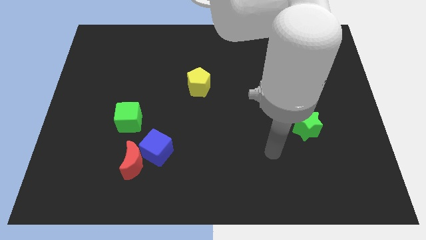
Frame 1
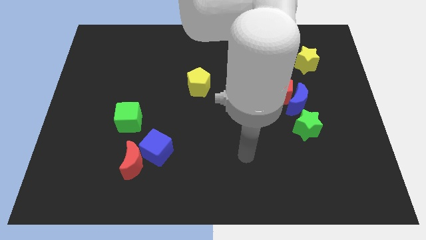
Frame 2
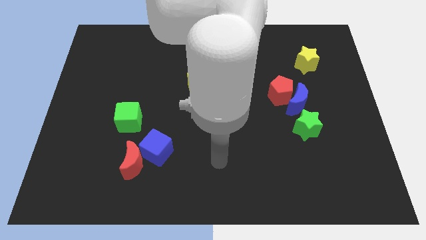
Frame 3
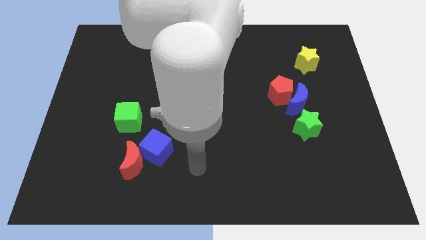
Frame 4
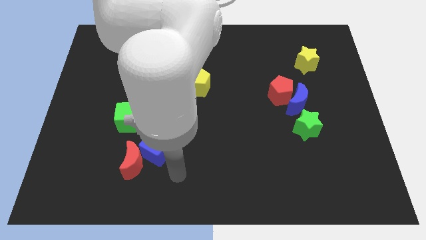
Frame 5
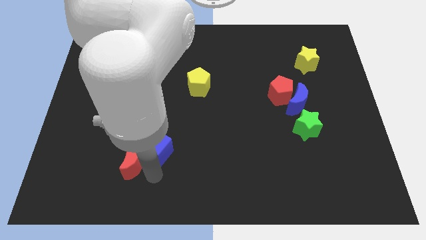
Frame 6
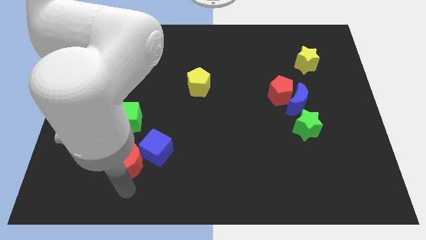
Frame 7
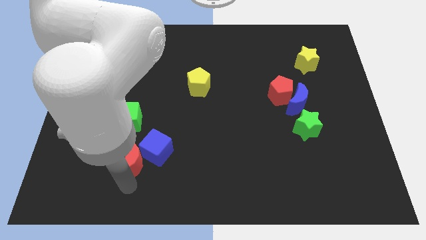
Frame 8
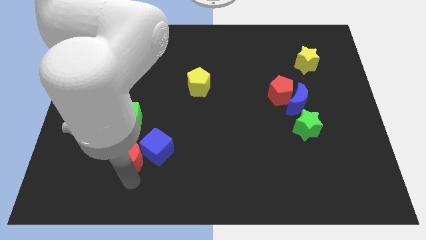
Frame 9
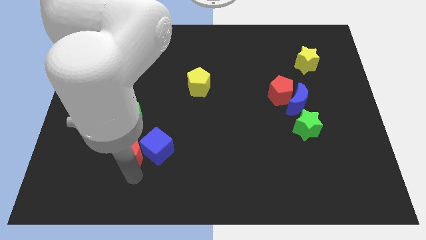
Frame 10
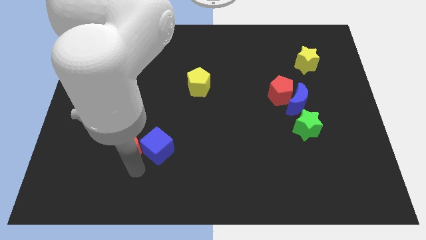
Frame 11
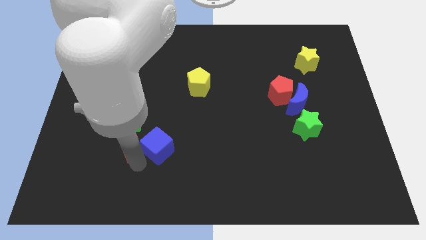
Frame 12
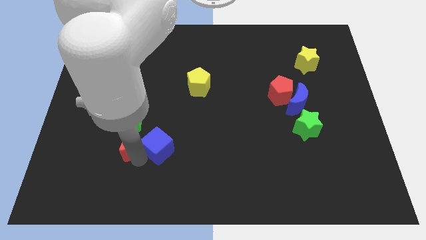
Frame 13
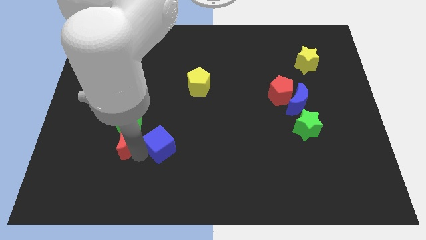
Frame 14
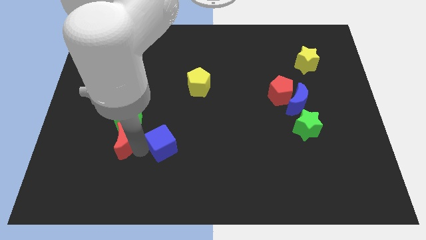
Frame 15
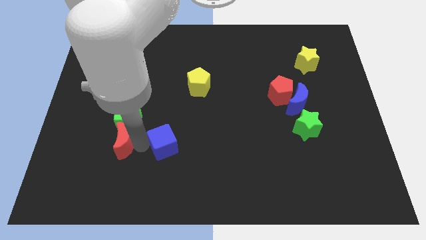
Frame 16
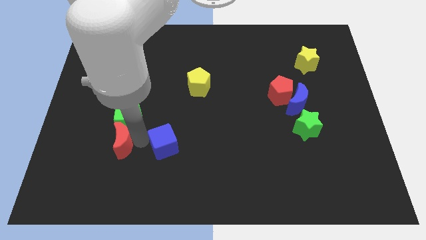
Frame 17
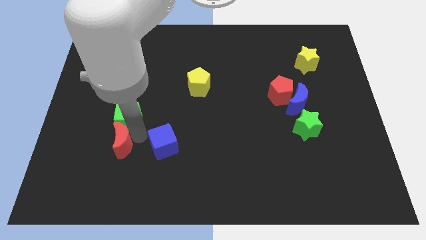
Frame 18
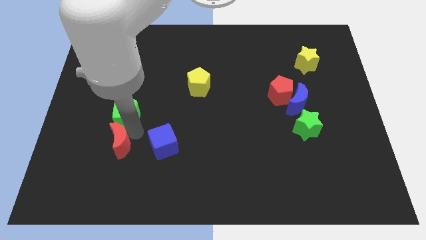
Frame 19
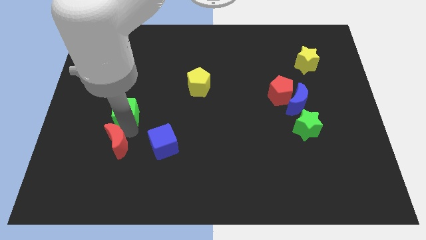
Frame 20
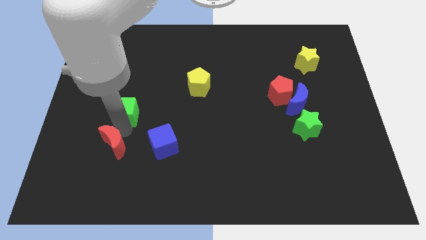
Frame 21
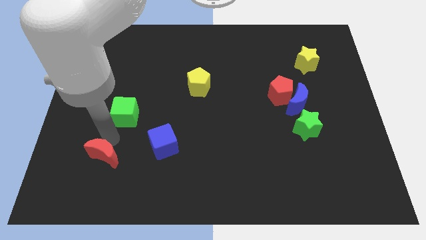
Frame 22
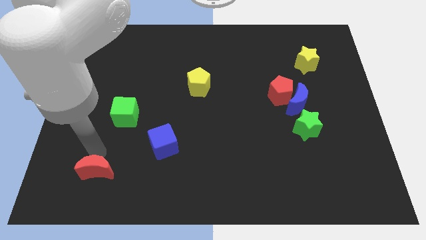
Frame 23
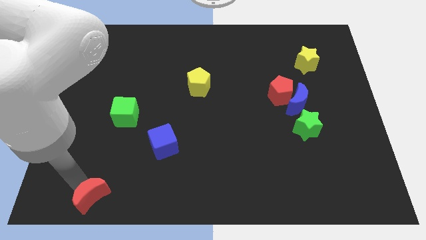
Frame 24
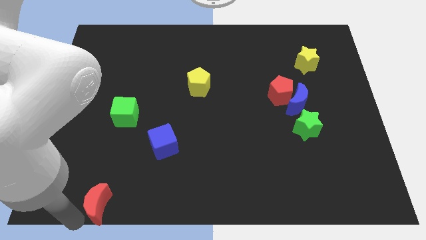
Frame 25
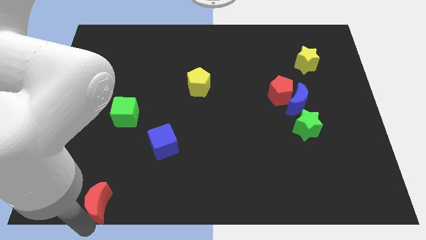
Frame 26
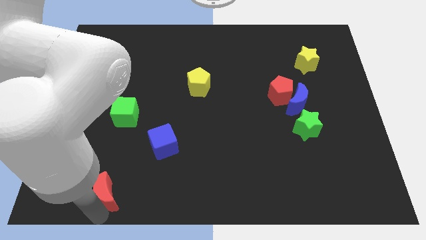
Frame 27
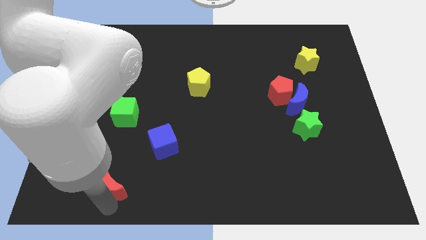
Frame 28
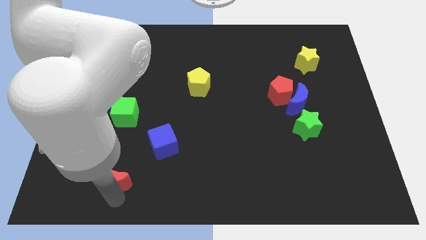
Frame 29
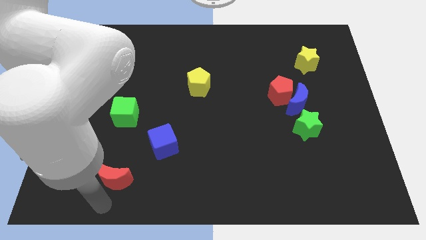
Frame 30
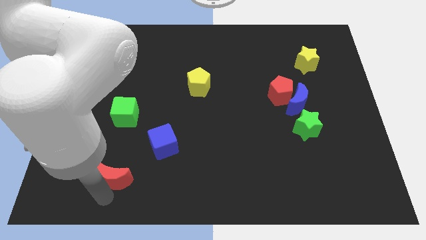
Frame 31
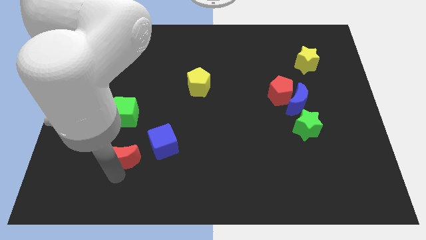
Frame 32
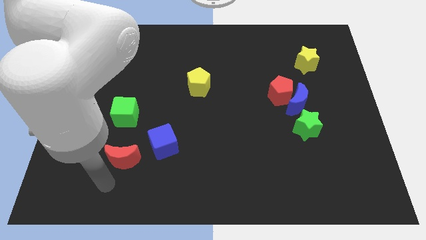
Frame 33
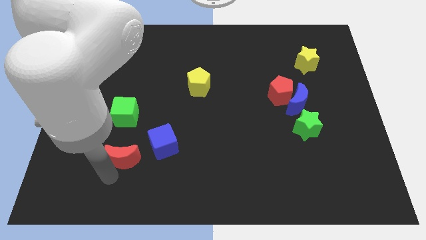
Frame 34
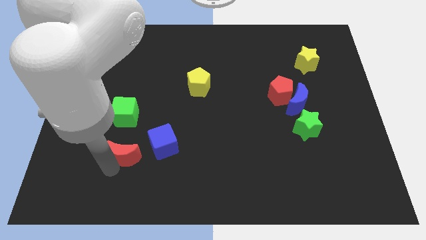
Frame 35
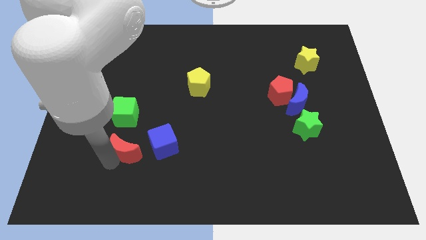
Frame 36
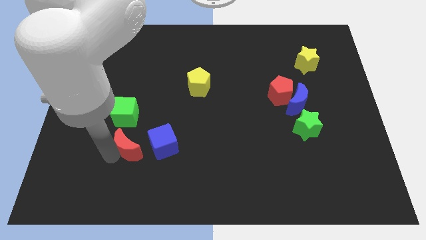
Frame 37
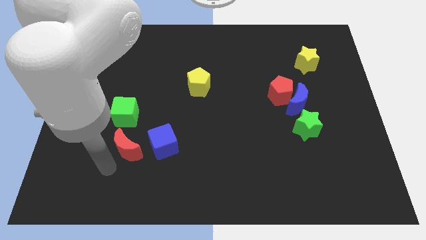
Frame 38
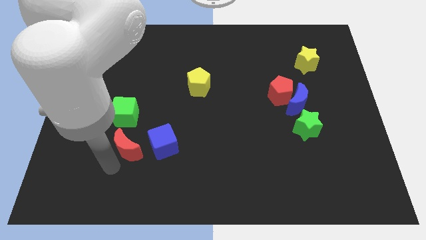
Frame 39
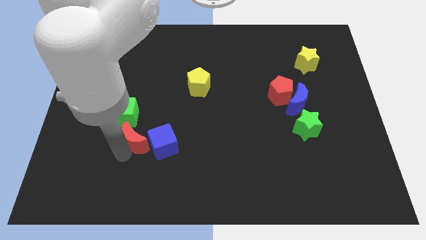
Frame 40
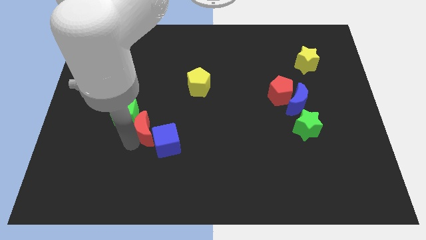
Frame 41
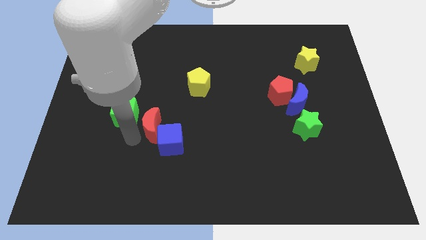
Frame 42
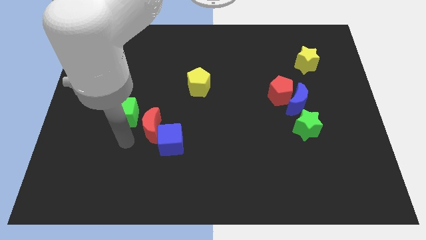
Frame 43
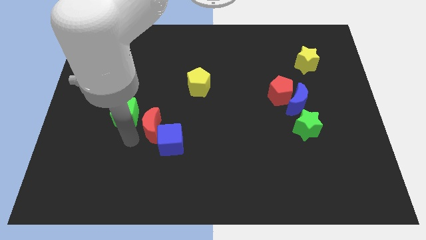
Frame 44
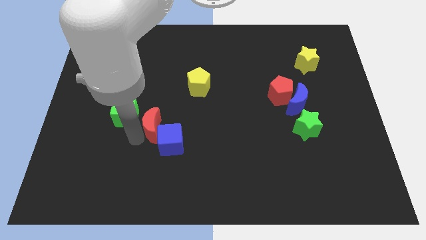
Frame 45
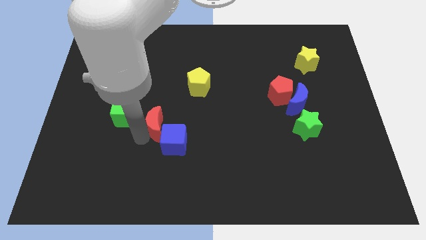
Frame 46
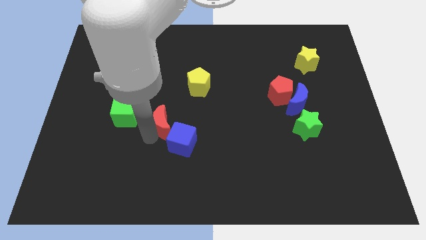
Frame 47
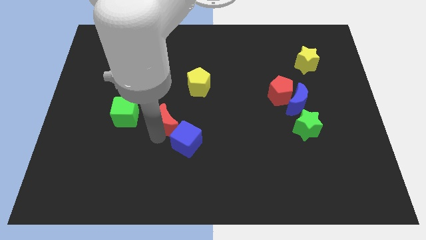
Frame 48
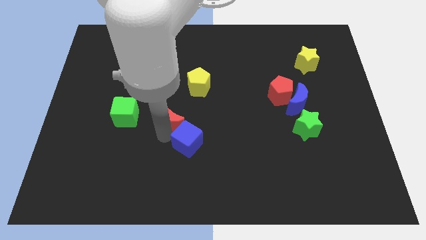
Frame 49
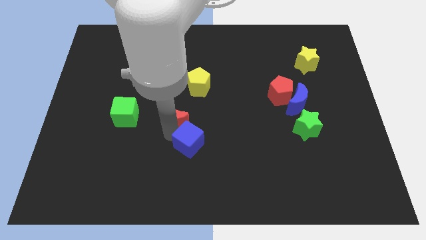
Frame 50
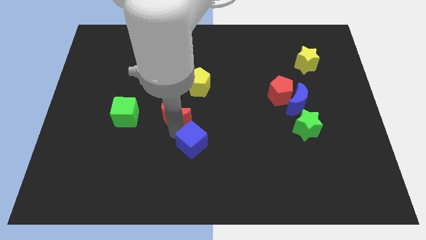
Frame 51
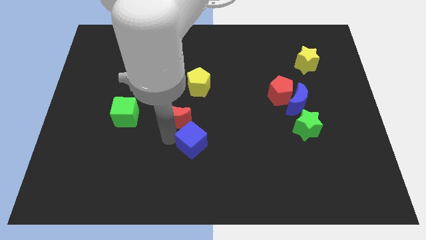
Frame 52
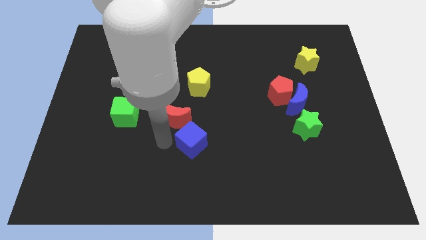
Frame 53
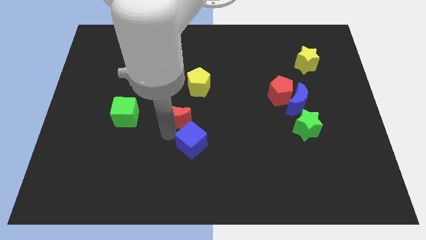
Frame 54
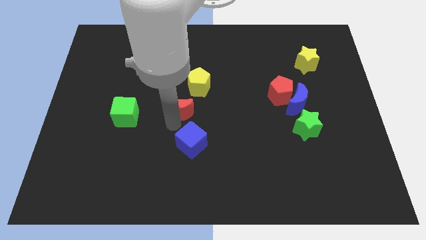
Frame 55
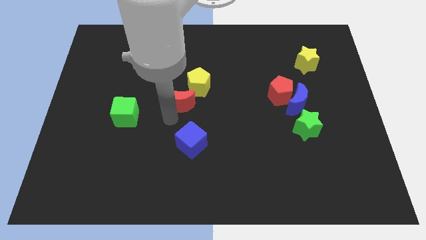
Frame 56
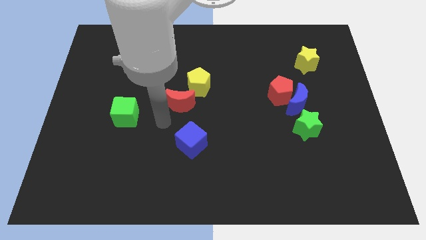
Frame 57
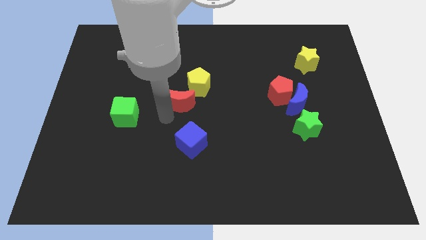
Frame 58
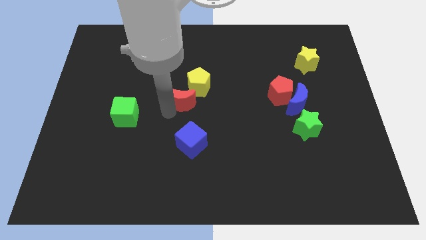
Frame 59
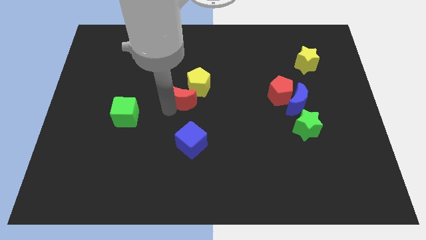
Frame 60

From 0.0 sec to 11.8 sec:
push the red moon next to the yellow pentagon
